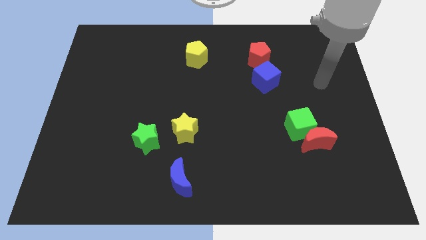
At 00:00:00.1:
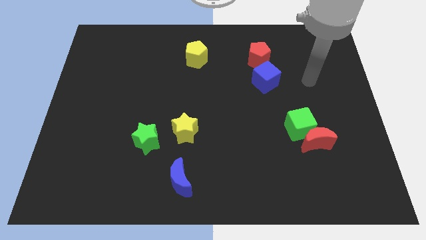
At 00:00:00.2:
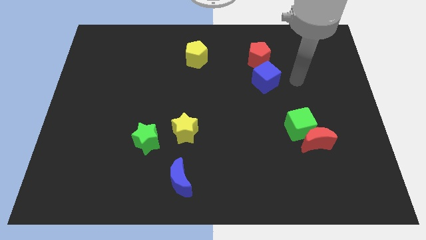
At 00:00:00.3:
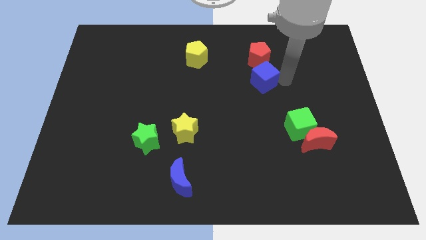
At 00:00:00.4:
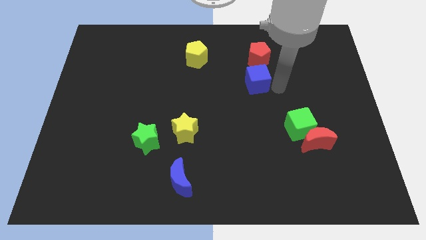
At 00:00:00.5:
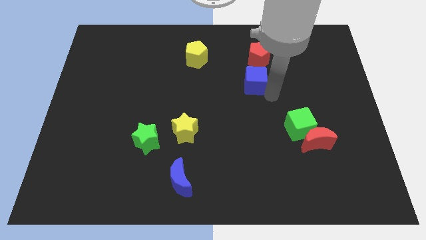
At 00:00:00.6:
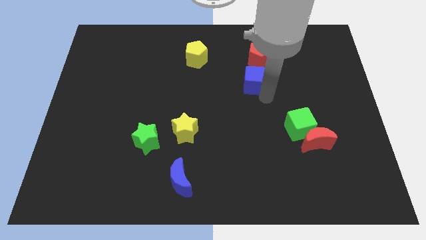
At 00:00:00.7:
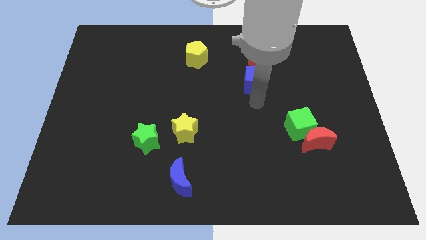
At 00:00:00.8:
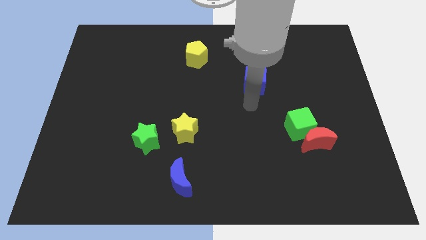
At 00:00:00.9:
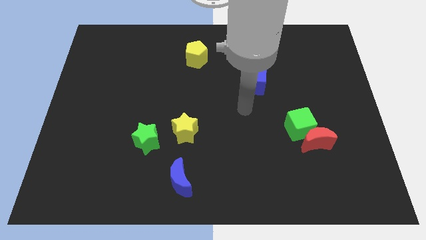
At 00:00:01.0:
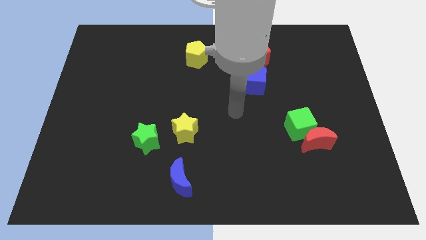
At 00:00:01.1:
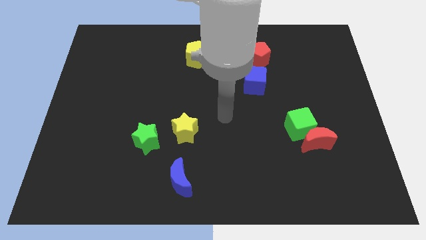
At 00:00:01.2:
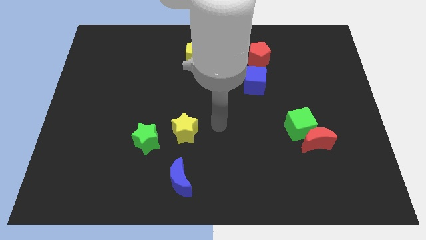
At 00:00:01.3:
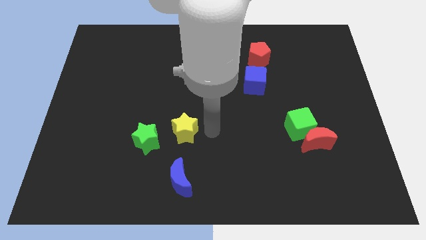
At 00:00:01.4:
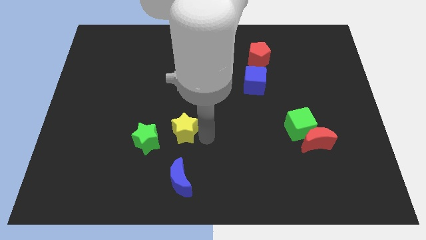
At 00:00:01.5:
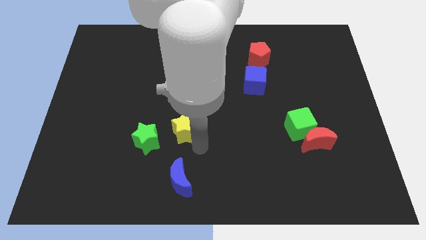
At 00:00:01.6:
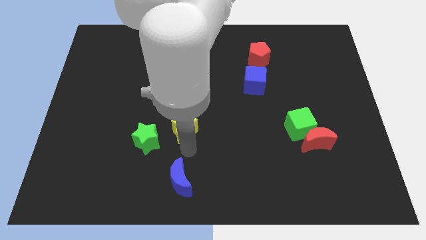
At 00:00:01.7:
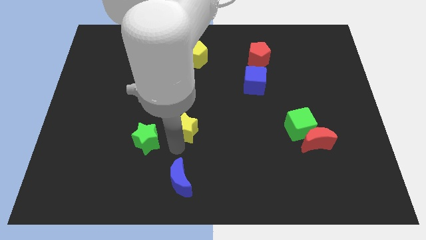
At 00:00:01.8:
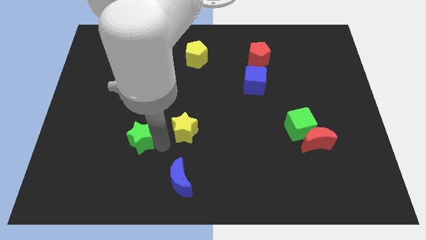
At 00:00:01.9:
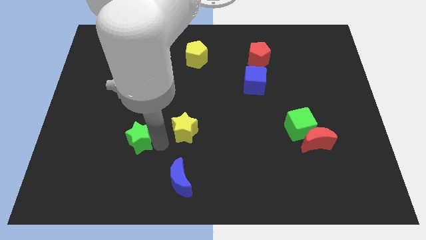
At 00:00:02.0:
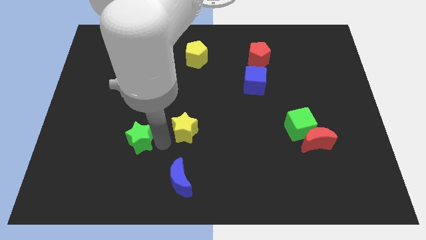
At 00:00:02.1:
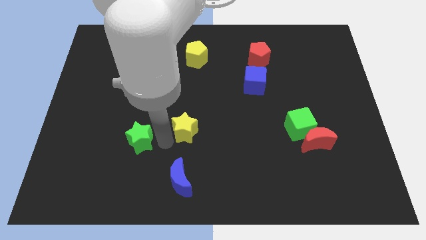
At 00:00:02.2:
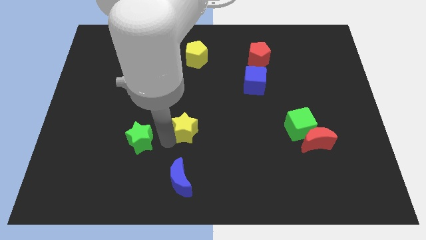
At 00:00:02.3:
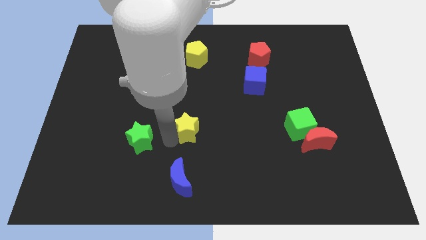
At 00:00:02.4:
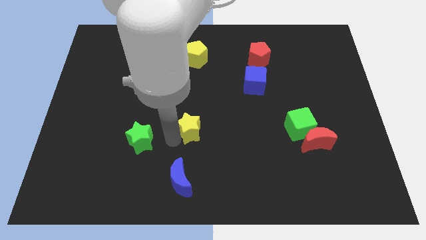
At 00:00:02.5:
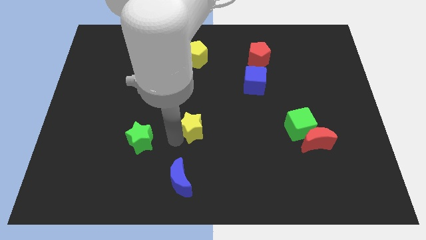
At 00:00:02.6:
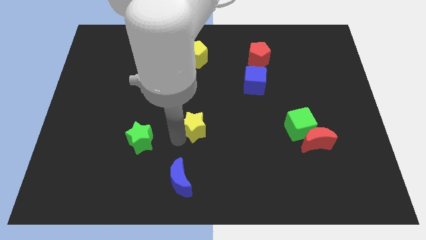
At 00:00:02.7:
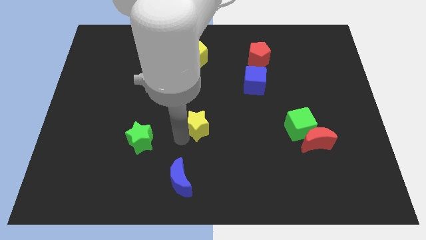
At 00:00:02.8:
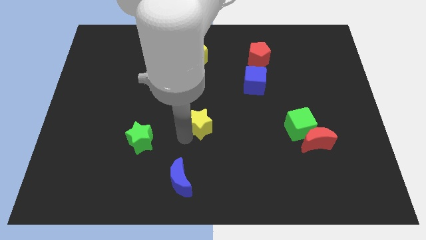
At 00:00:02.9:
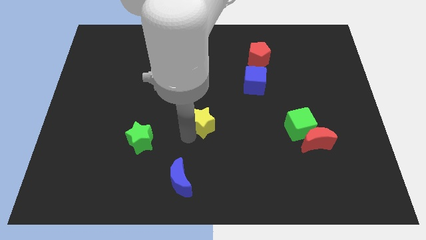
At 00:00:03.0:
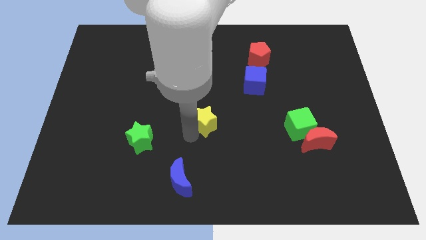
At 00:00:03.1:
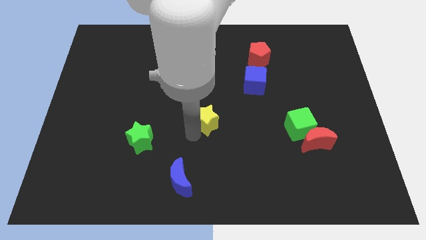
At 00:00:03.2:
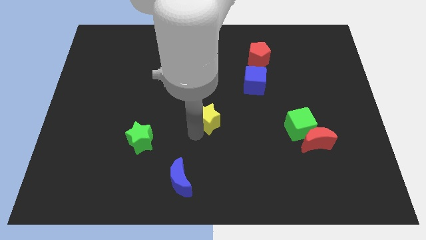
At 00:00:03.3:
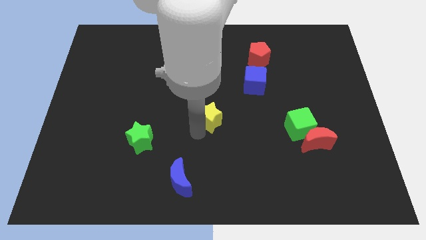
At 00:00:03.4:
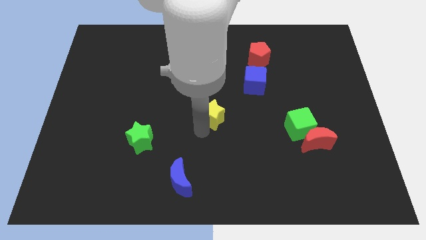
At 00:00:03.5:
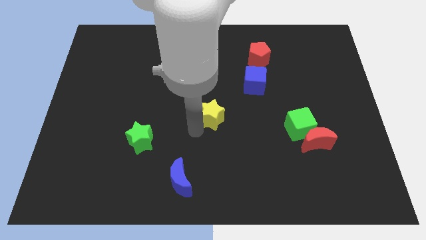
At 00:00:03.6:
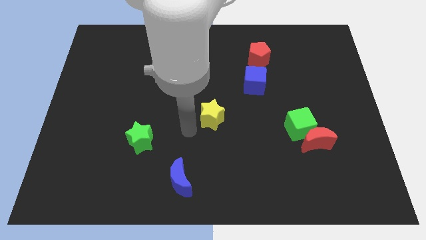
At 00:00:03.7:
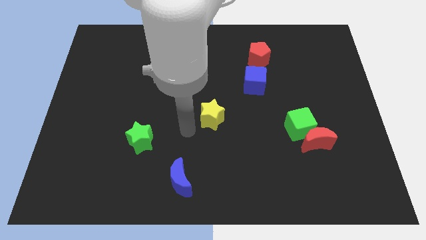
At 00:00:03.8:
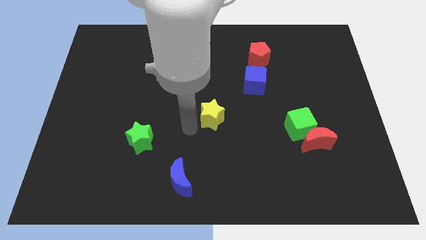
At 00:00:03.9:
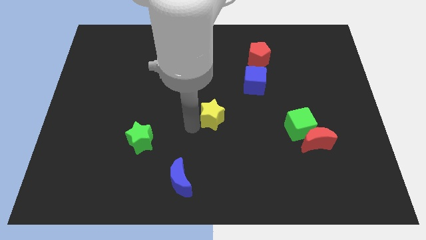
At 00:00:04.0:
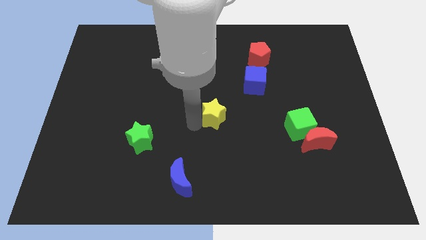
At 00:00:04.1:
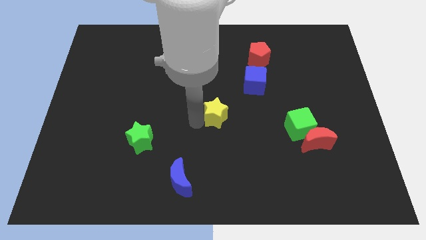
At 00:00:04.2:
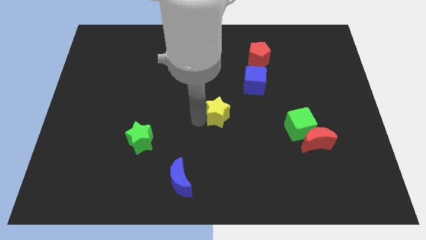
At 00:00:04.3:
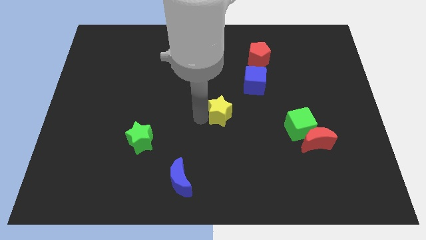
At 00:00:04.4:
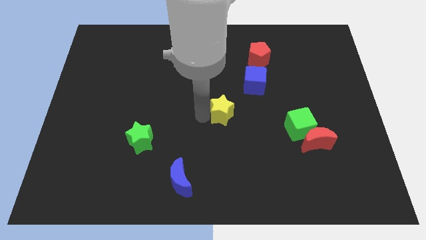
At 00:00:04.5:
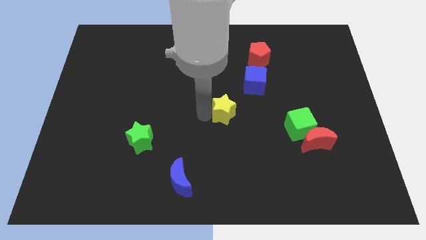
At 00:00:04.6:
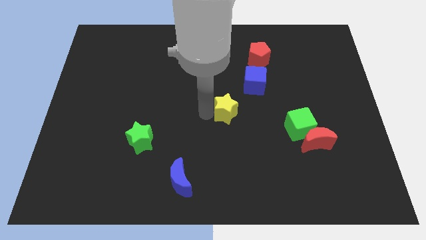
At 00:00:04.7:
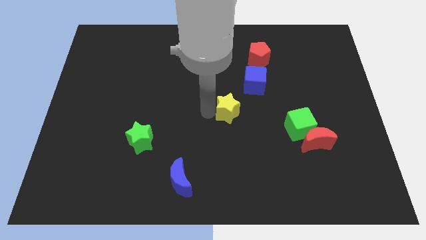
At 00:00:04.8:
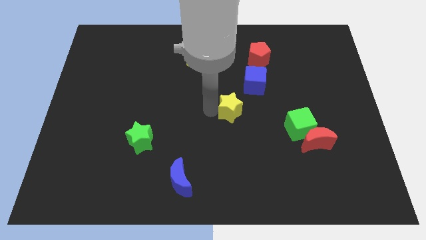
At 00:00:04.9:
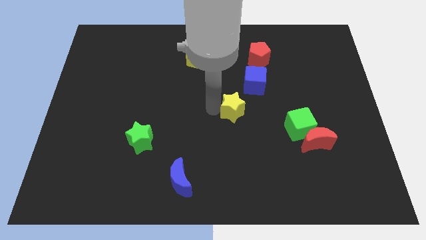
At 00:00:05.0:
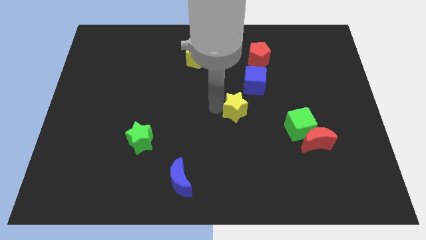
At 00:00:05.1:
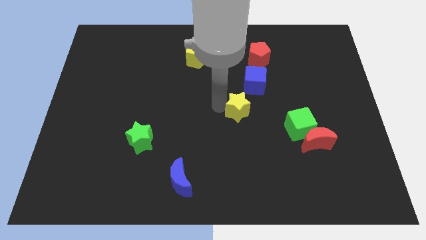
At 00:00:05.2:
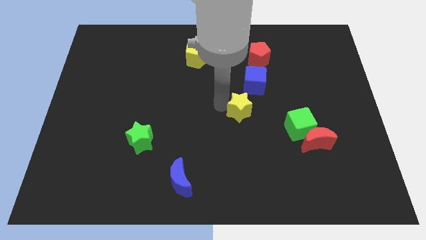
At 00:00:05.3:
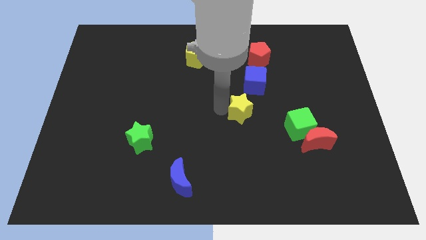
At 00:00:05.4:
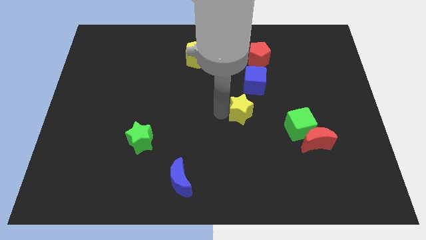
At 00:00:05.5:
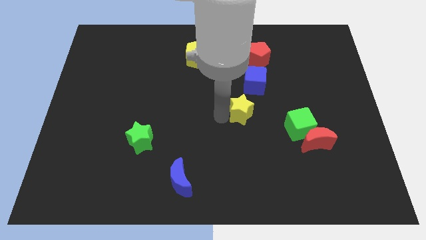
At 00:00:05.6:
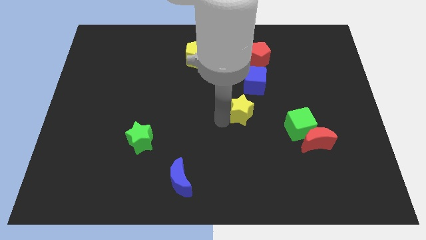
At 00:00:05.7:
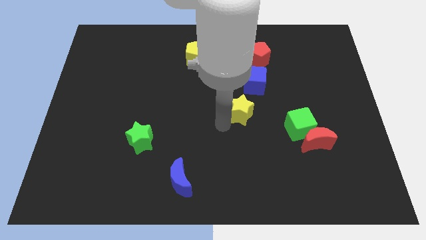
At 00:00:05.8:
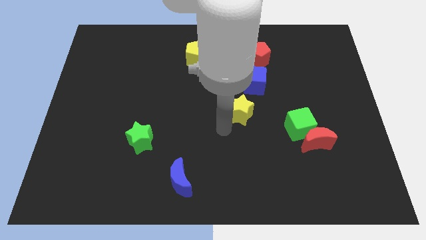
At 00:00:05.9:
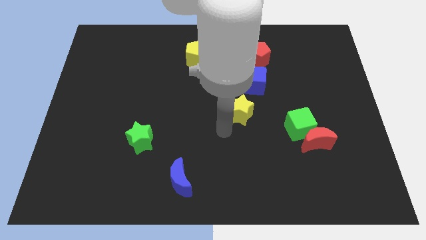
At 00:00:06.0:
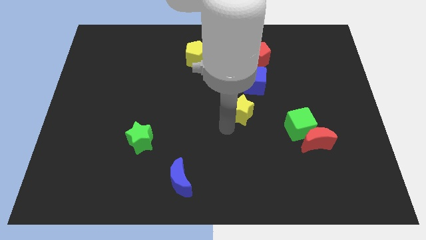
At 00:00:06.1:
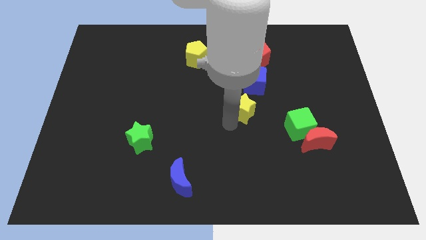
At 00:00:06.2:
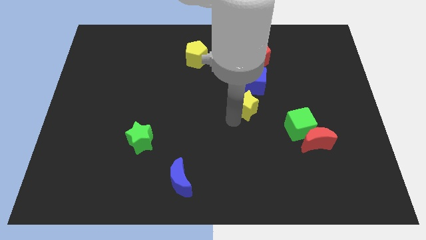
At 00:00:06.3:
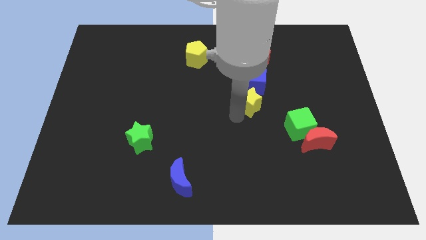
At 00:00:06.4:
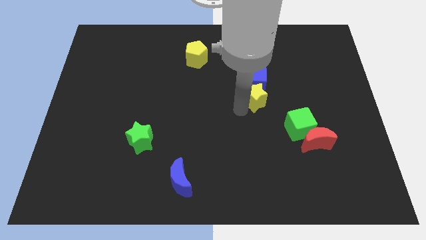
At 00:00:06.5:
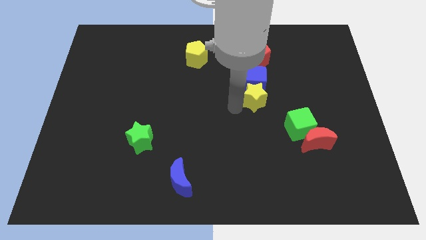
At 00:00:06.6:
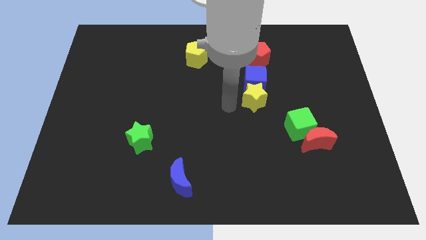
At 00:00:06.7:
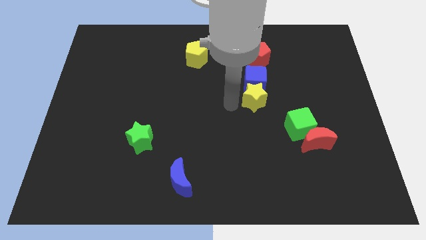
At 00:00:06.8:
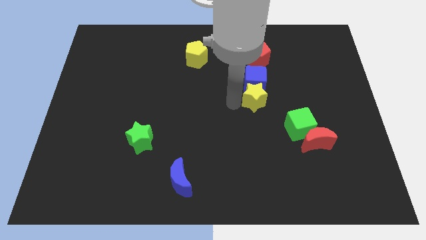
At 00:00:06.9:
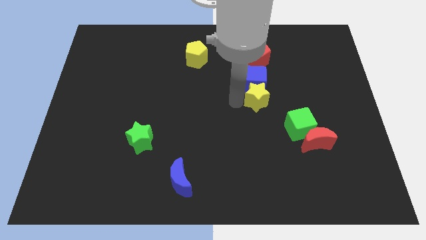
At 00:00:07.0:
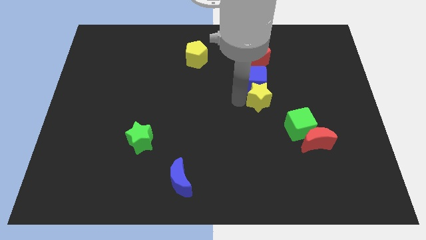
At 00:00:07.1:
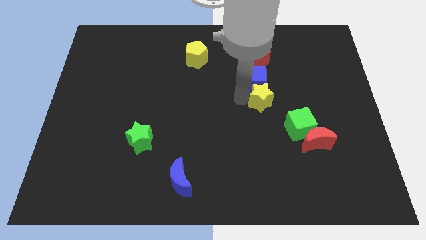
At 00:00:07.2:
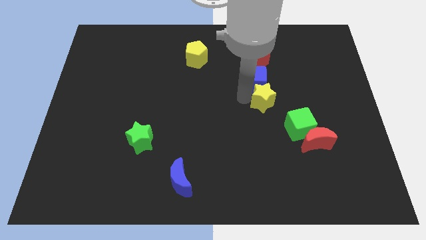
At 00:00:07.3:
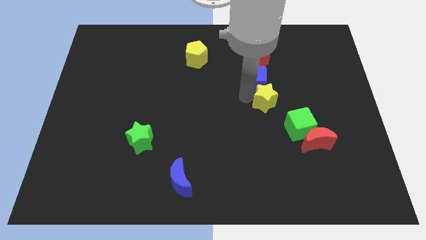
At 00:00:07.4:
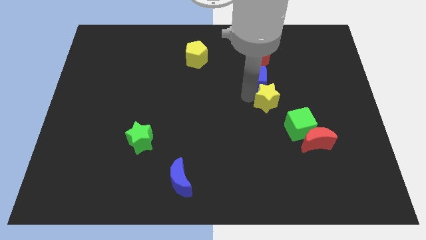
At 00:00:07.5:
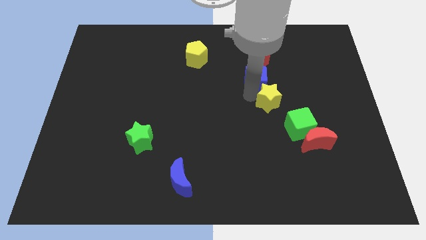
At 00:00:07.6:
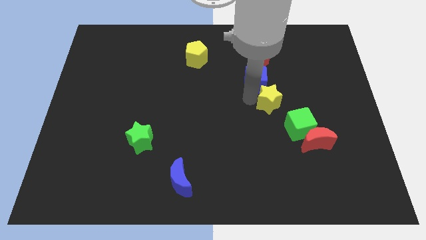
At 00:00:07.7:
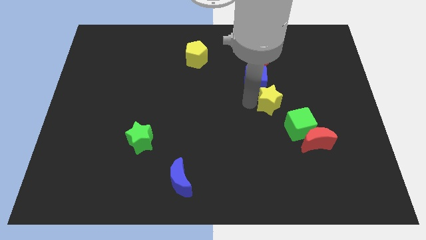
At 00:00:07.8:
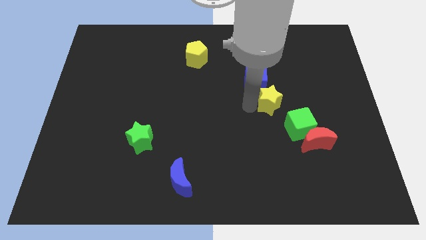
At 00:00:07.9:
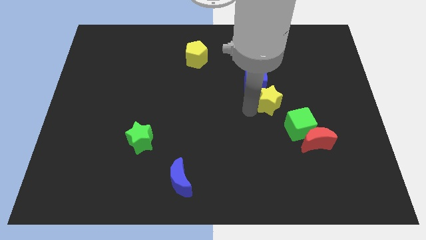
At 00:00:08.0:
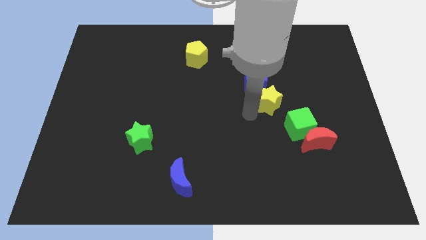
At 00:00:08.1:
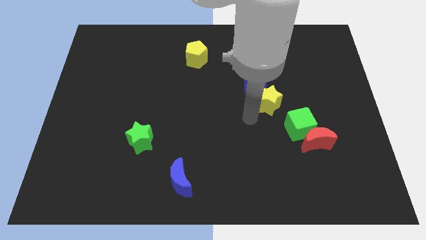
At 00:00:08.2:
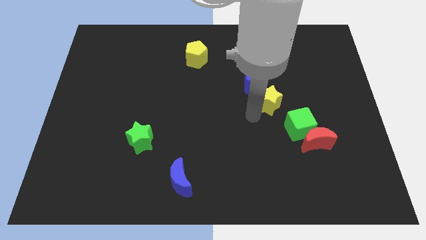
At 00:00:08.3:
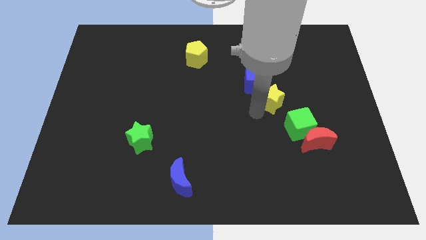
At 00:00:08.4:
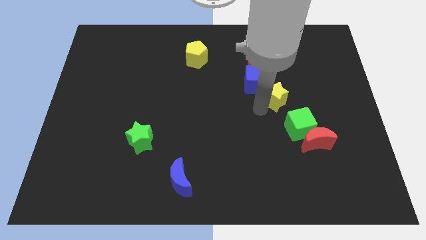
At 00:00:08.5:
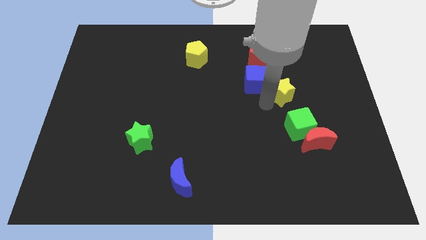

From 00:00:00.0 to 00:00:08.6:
move the yellow star to the right side of the blue cube
